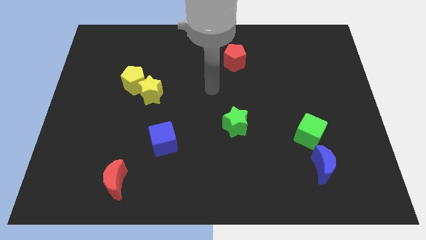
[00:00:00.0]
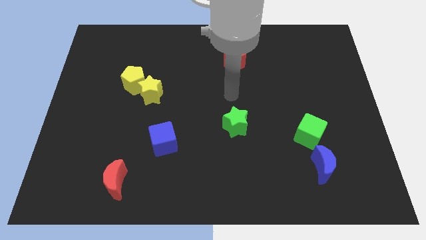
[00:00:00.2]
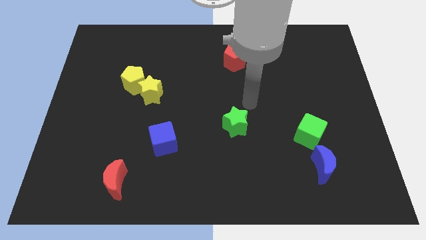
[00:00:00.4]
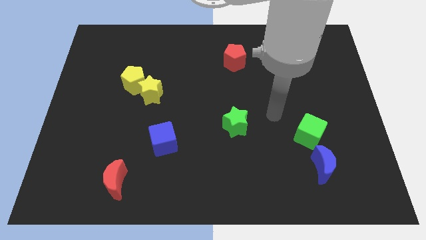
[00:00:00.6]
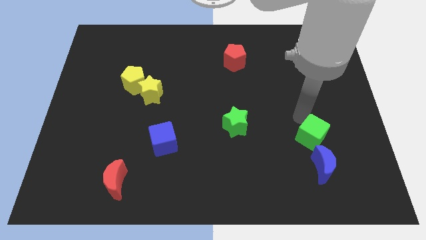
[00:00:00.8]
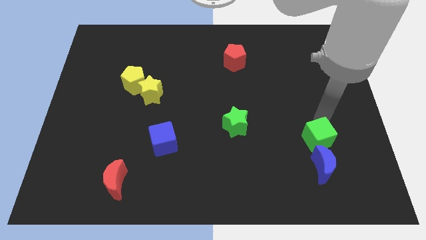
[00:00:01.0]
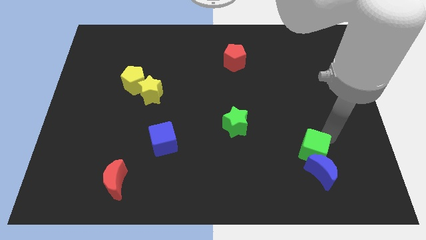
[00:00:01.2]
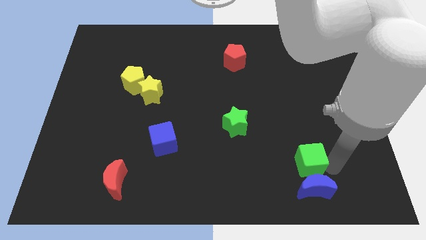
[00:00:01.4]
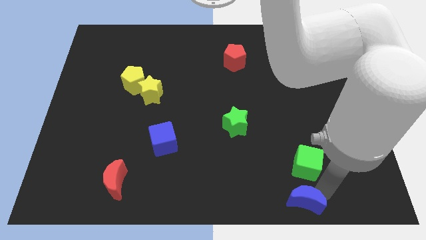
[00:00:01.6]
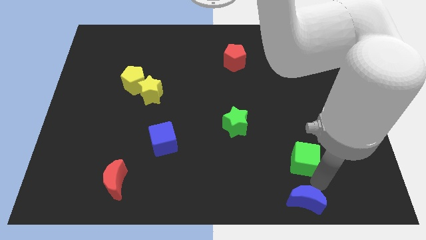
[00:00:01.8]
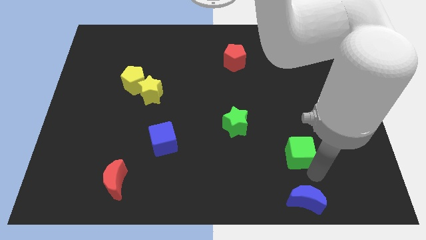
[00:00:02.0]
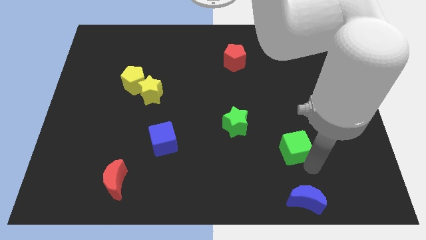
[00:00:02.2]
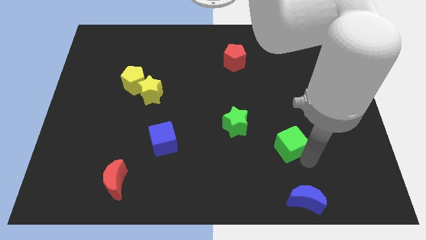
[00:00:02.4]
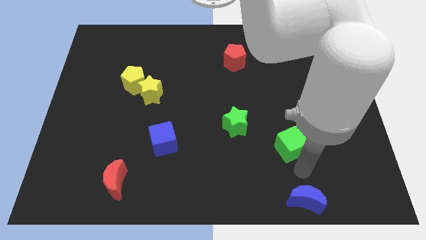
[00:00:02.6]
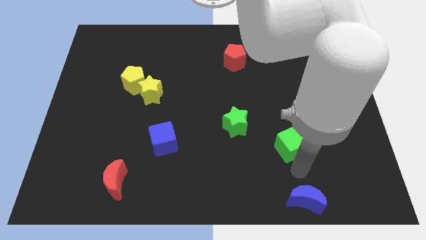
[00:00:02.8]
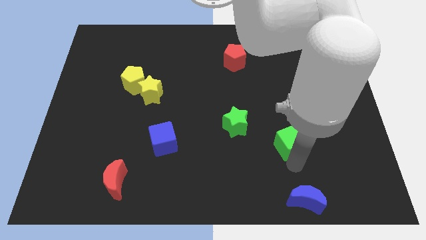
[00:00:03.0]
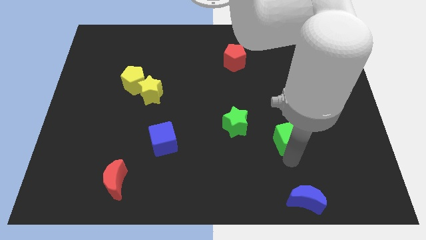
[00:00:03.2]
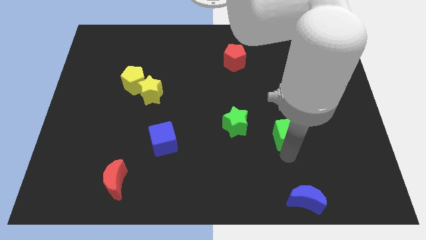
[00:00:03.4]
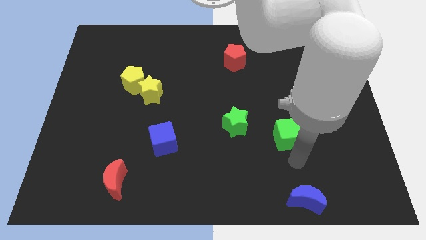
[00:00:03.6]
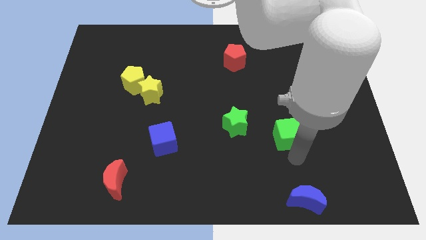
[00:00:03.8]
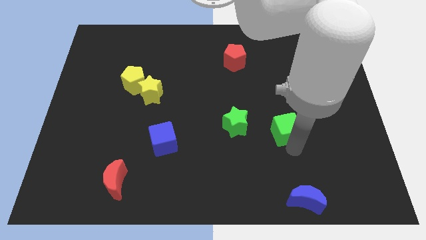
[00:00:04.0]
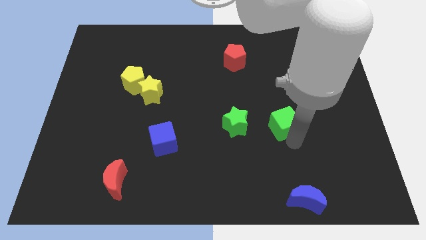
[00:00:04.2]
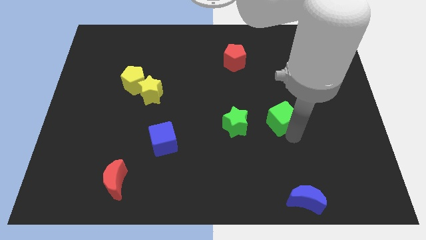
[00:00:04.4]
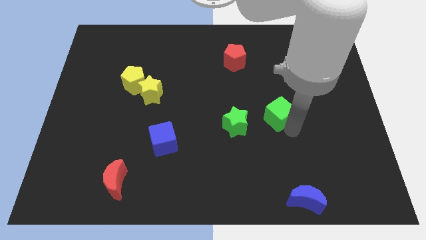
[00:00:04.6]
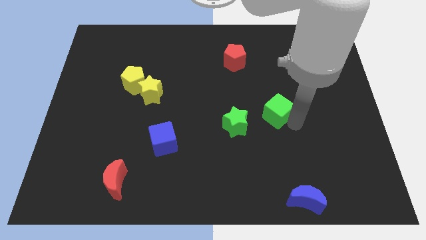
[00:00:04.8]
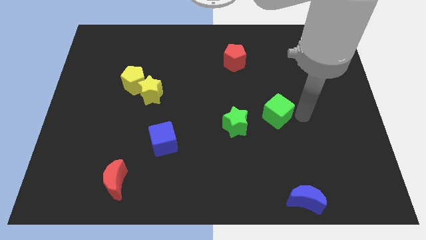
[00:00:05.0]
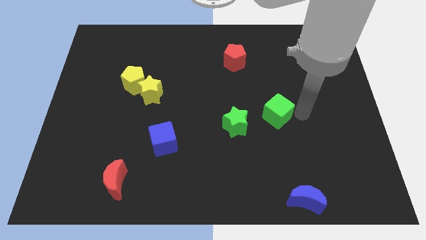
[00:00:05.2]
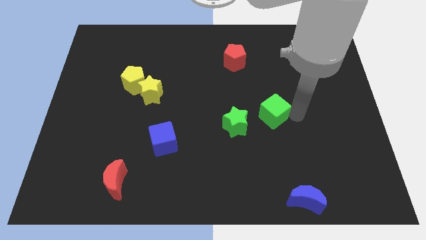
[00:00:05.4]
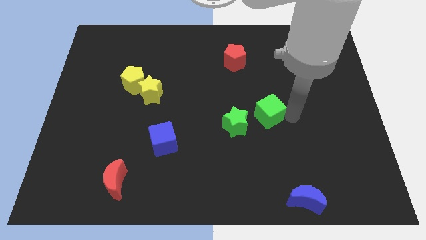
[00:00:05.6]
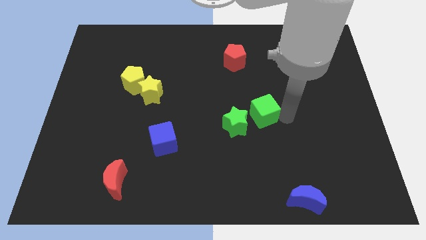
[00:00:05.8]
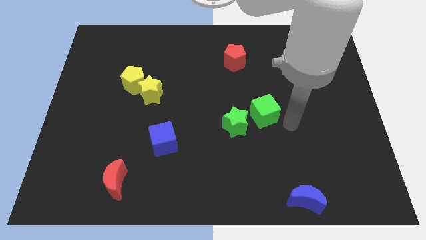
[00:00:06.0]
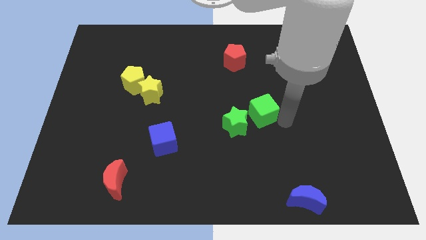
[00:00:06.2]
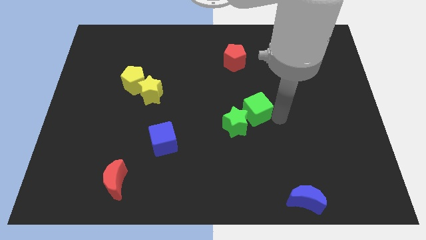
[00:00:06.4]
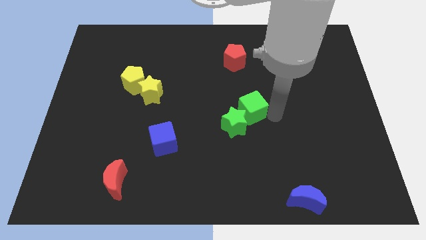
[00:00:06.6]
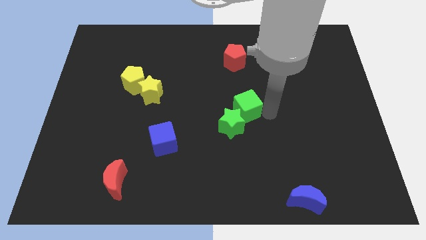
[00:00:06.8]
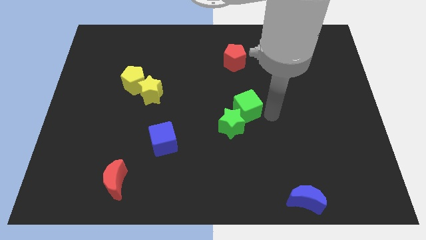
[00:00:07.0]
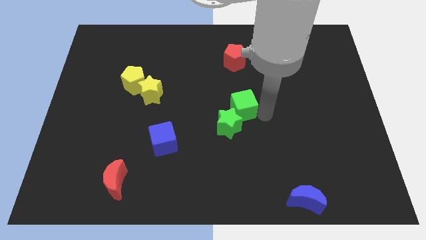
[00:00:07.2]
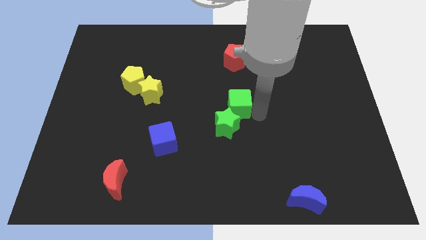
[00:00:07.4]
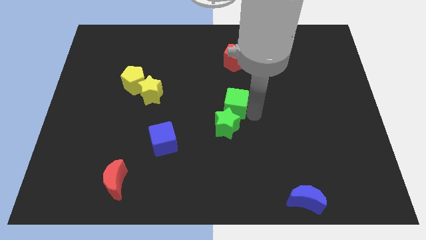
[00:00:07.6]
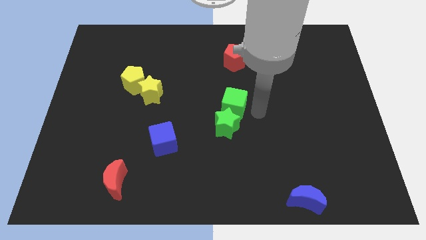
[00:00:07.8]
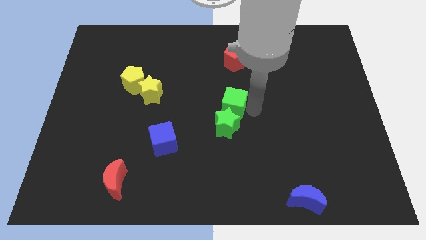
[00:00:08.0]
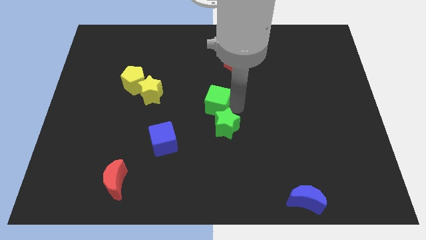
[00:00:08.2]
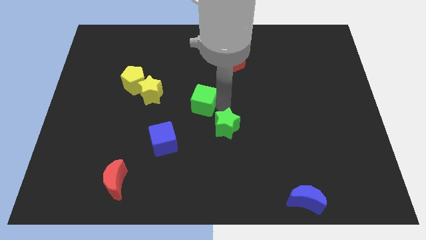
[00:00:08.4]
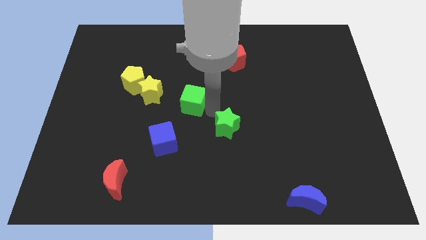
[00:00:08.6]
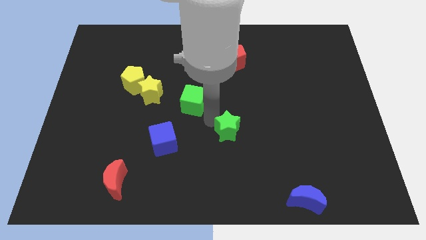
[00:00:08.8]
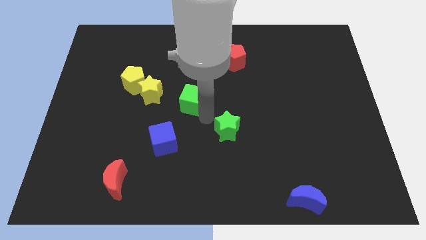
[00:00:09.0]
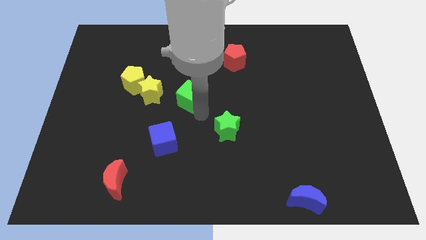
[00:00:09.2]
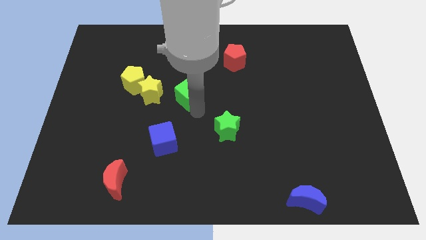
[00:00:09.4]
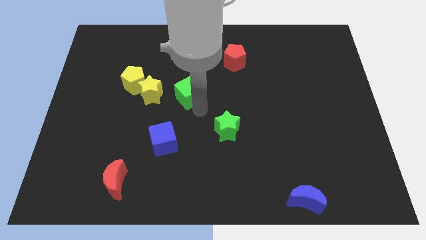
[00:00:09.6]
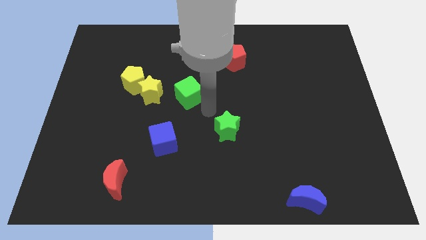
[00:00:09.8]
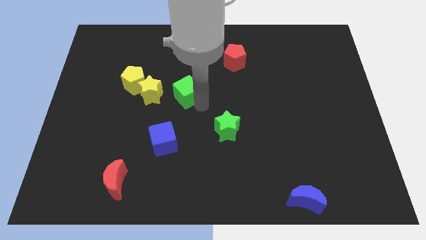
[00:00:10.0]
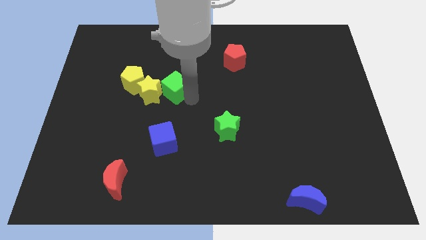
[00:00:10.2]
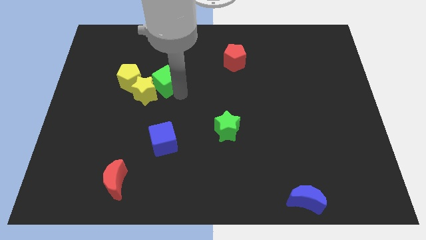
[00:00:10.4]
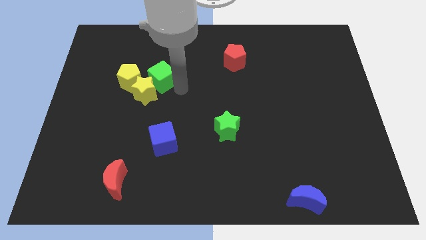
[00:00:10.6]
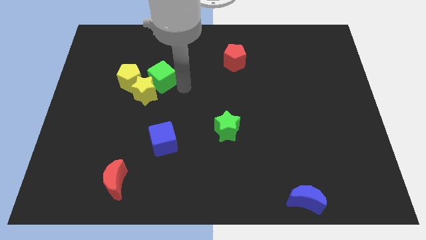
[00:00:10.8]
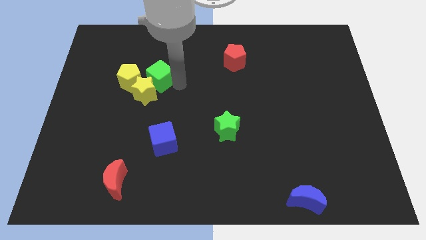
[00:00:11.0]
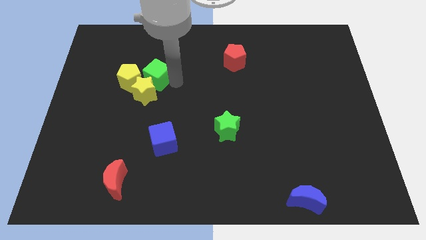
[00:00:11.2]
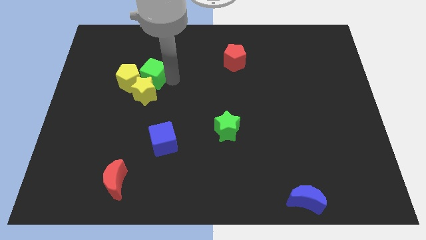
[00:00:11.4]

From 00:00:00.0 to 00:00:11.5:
slide the green cube diagonally up and to the left of the yellow star

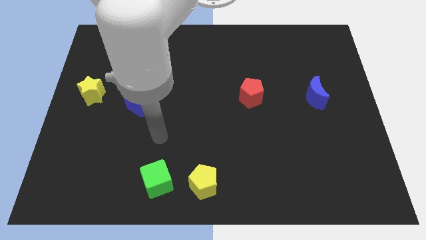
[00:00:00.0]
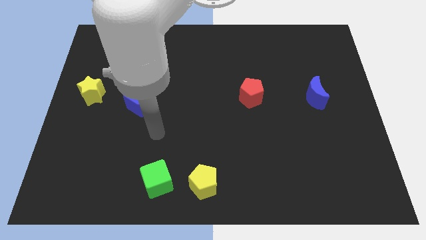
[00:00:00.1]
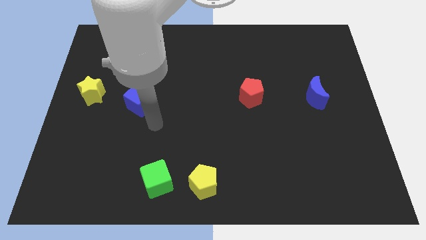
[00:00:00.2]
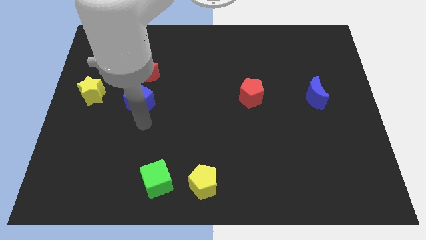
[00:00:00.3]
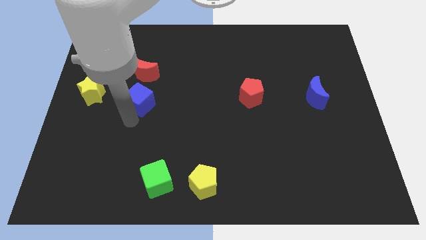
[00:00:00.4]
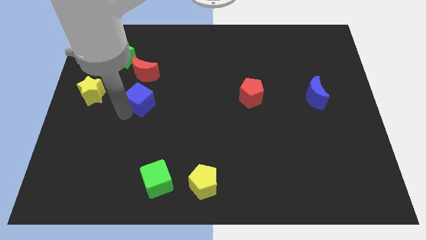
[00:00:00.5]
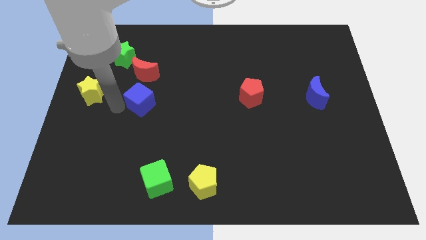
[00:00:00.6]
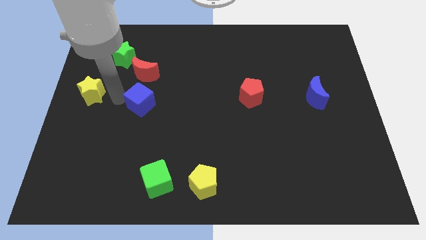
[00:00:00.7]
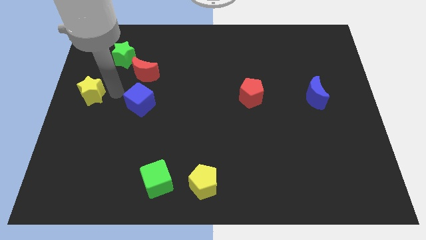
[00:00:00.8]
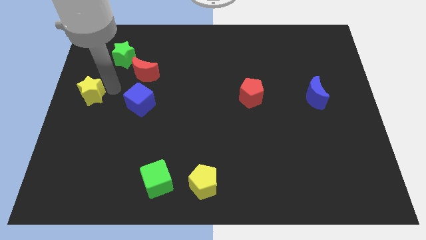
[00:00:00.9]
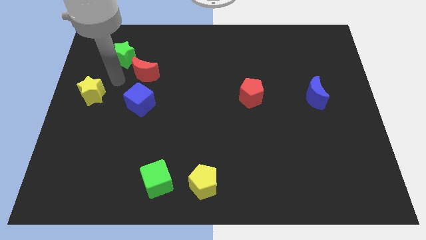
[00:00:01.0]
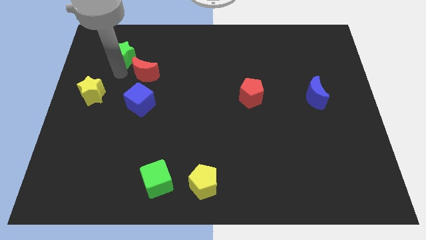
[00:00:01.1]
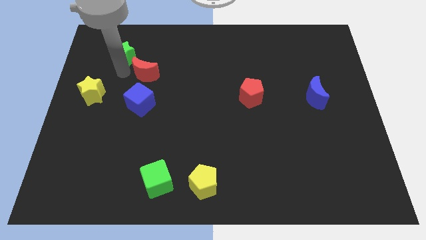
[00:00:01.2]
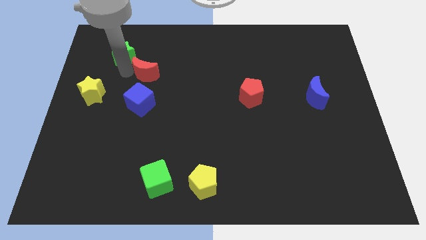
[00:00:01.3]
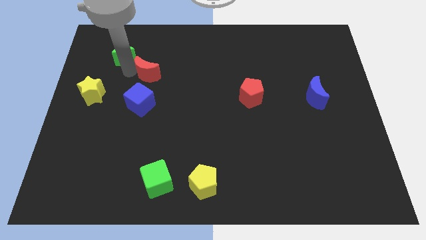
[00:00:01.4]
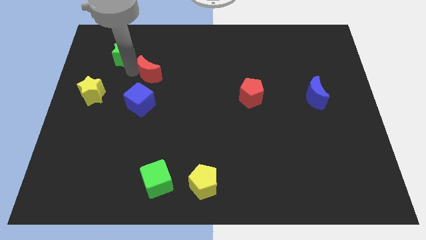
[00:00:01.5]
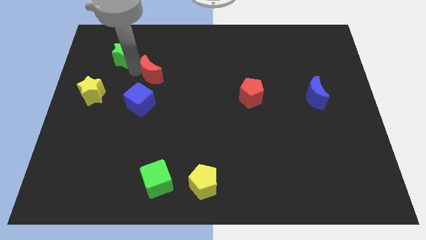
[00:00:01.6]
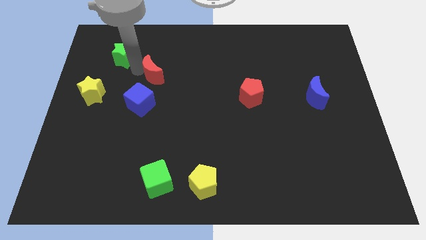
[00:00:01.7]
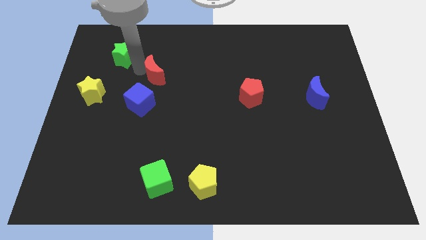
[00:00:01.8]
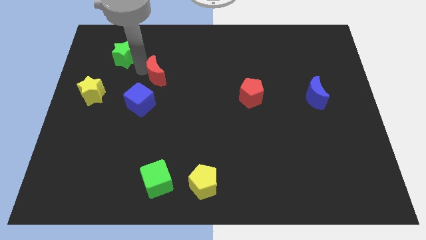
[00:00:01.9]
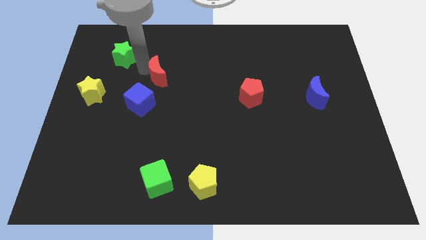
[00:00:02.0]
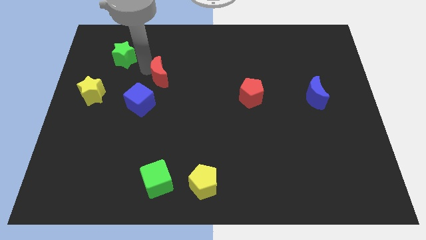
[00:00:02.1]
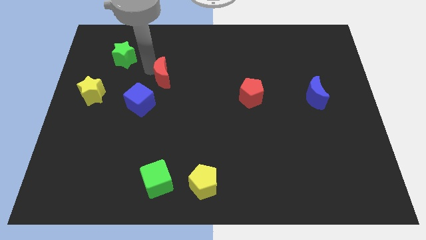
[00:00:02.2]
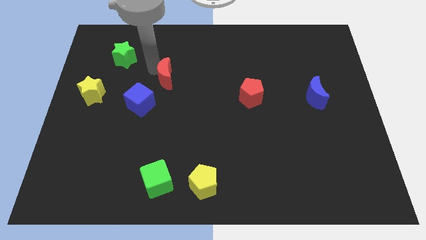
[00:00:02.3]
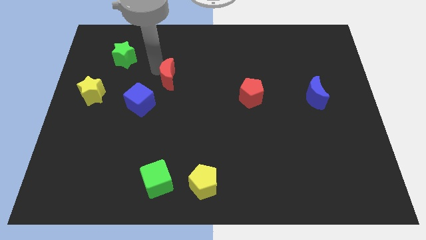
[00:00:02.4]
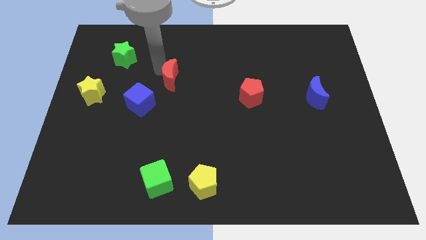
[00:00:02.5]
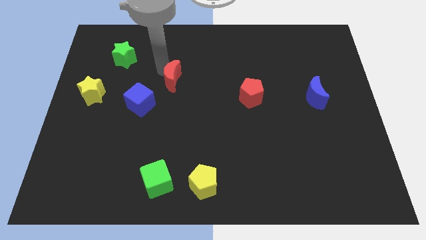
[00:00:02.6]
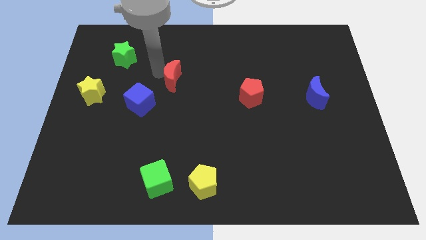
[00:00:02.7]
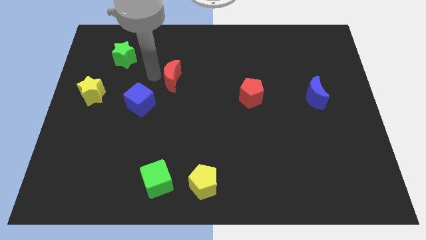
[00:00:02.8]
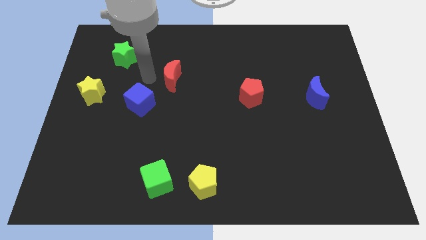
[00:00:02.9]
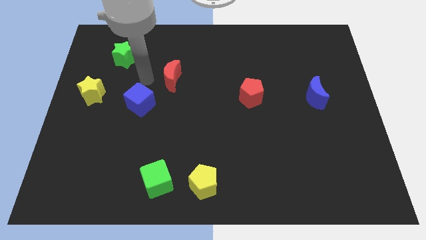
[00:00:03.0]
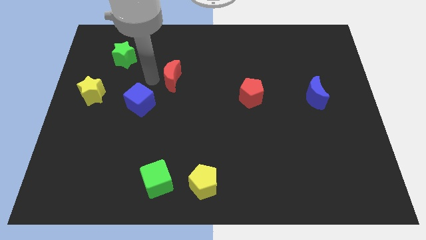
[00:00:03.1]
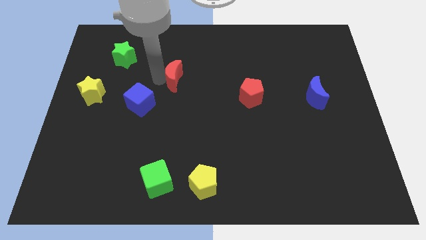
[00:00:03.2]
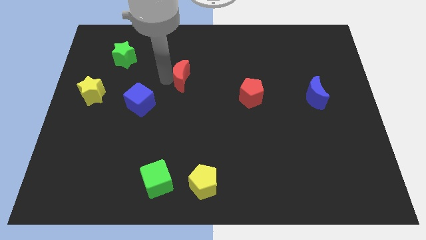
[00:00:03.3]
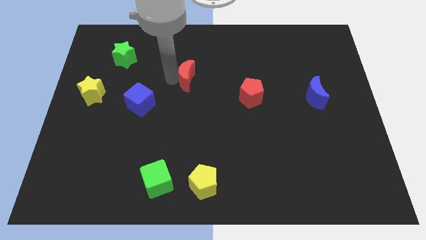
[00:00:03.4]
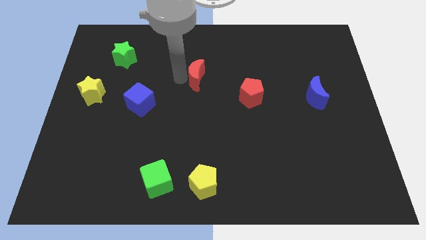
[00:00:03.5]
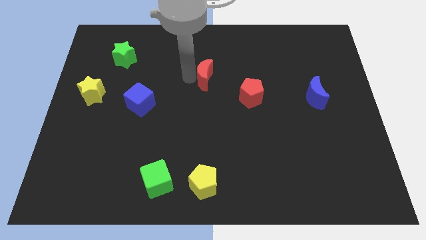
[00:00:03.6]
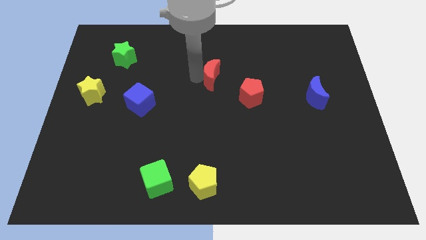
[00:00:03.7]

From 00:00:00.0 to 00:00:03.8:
push the red moon to the top left of the red pentagon
